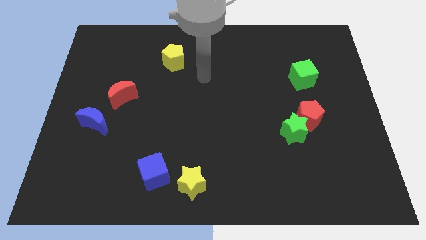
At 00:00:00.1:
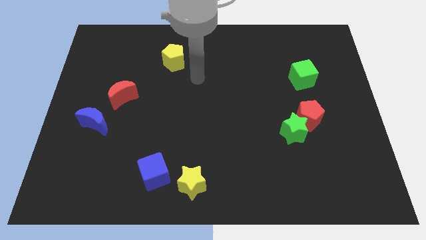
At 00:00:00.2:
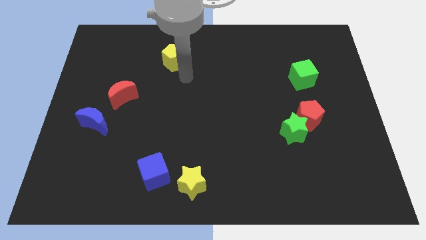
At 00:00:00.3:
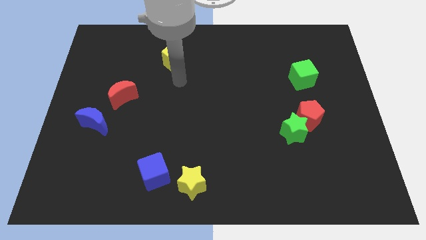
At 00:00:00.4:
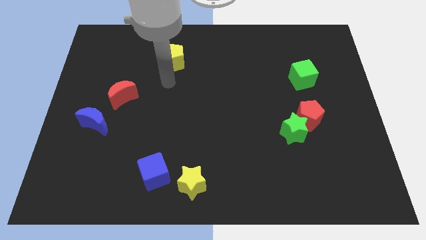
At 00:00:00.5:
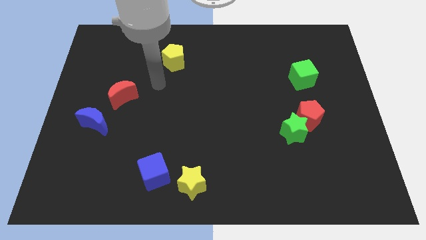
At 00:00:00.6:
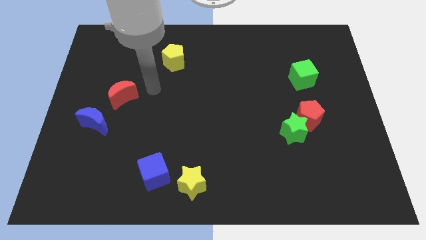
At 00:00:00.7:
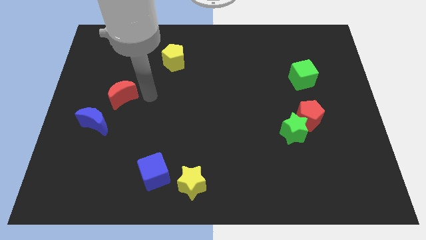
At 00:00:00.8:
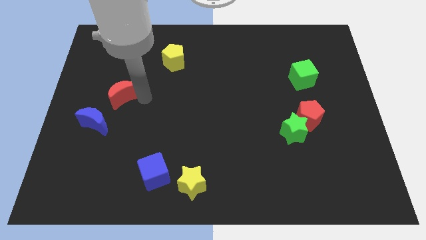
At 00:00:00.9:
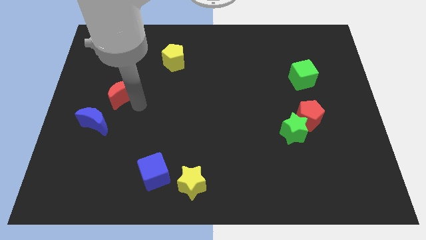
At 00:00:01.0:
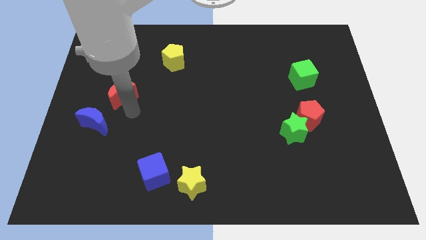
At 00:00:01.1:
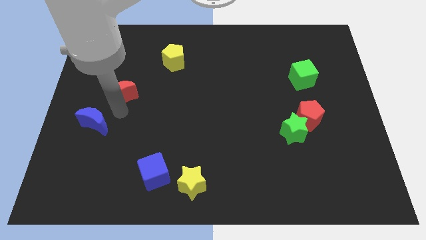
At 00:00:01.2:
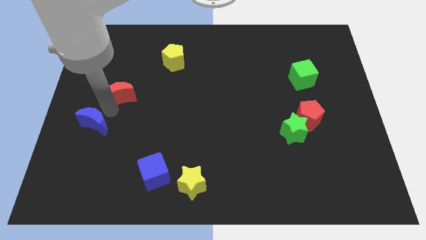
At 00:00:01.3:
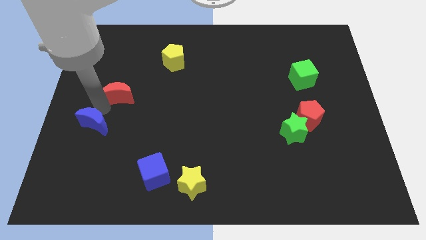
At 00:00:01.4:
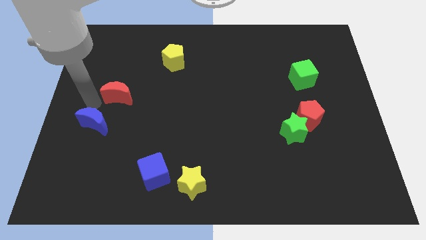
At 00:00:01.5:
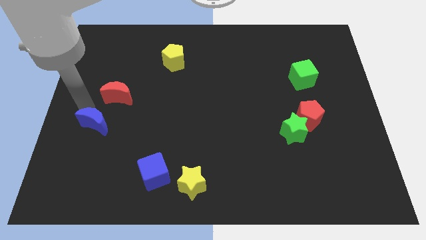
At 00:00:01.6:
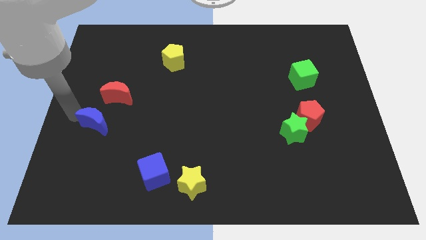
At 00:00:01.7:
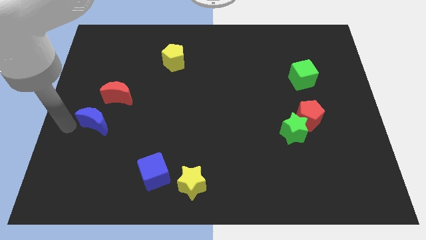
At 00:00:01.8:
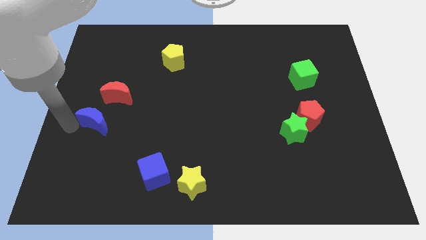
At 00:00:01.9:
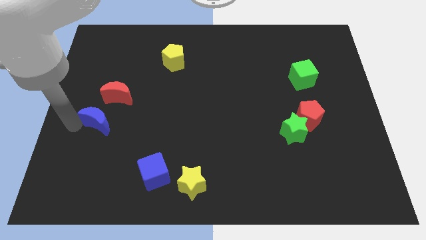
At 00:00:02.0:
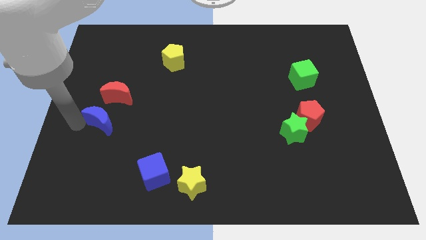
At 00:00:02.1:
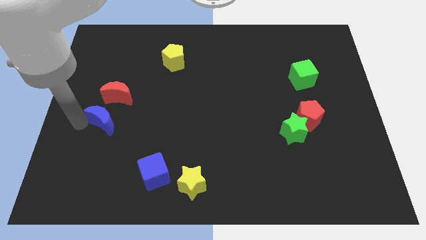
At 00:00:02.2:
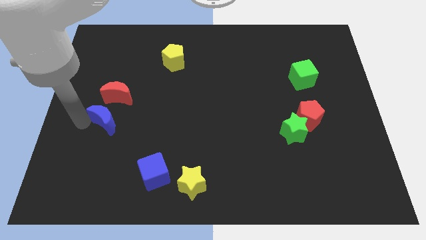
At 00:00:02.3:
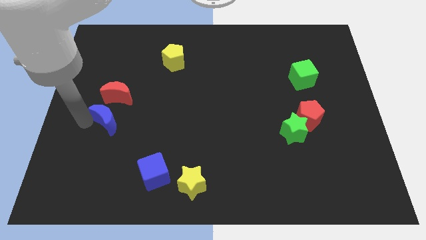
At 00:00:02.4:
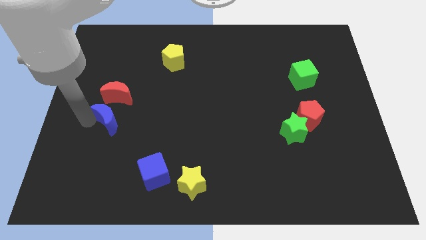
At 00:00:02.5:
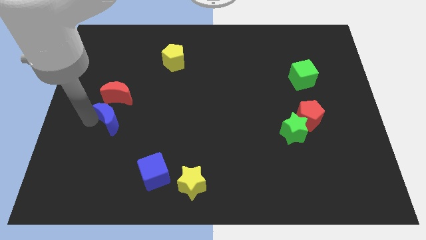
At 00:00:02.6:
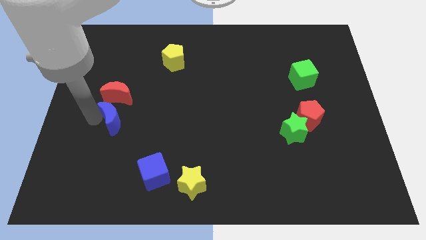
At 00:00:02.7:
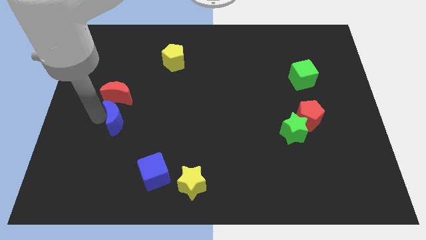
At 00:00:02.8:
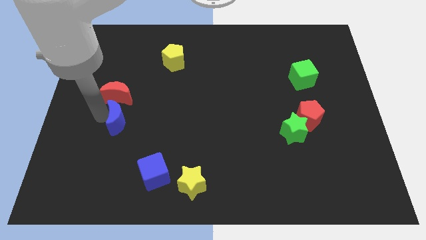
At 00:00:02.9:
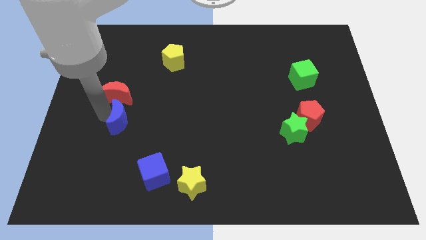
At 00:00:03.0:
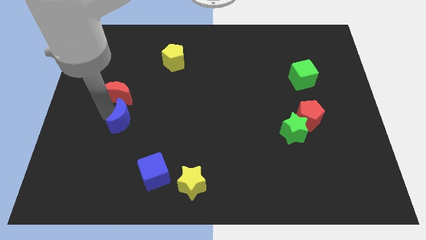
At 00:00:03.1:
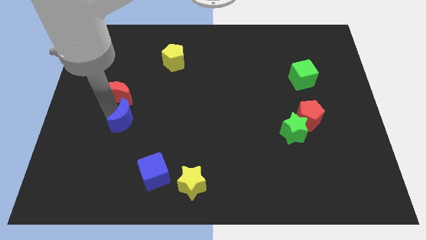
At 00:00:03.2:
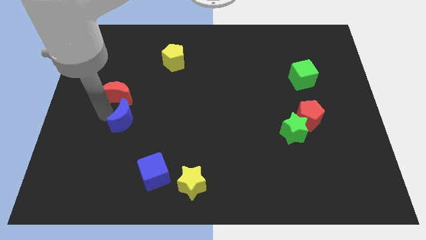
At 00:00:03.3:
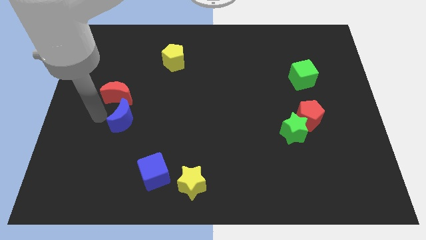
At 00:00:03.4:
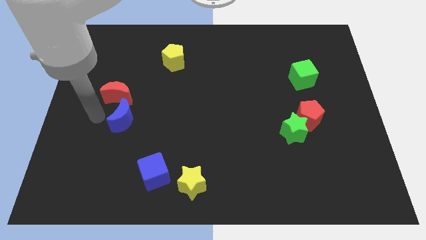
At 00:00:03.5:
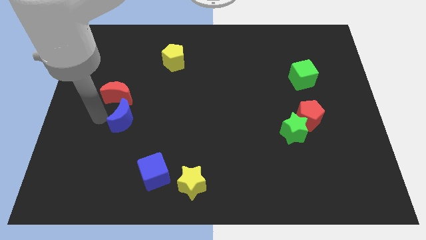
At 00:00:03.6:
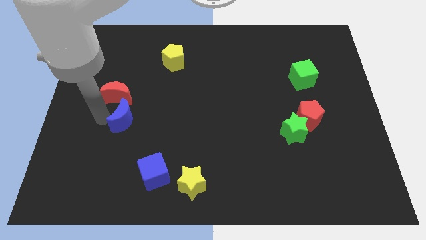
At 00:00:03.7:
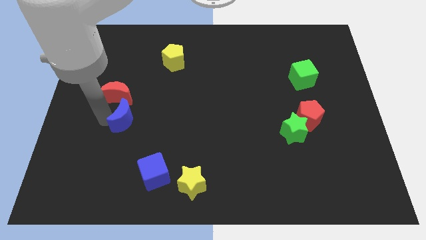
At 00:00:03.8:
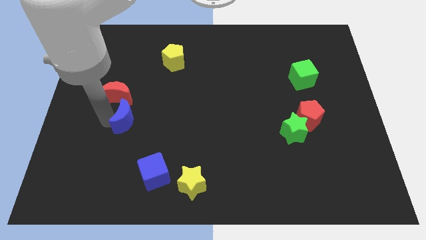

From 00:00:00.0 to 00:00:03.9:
slide the blue moon slightly right

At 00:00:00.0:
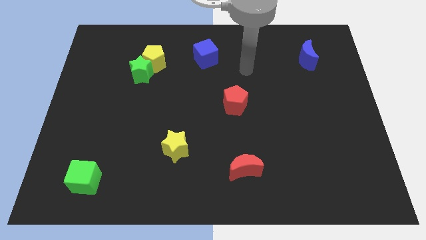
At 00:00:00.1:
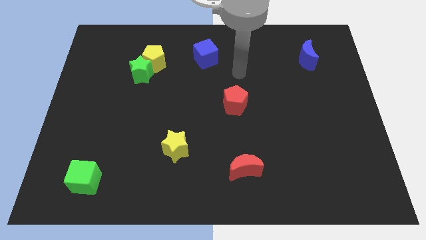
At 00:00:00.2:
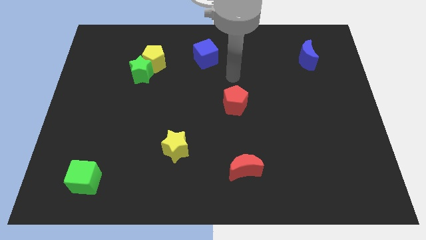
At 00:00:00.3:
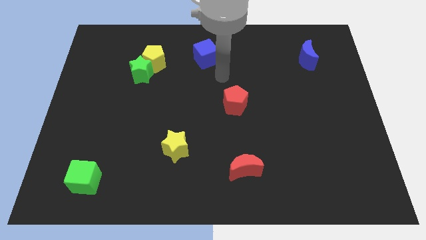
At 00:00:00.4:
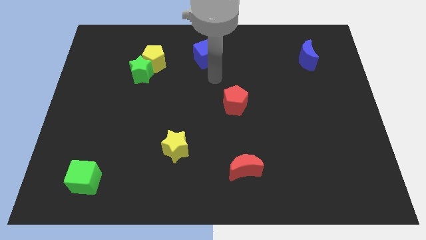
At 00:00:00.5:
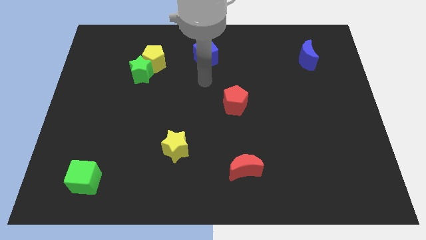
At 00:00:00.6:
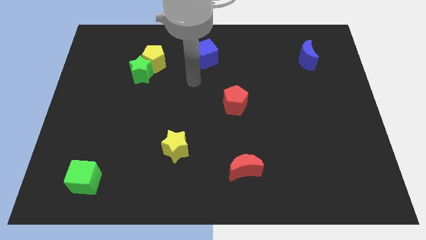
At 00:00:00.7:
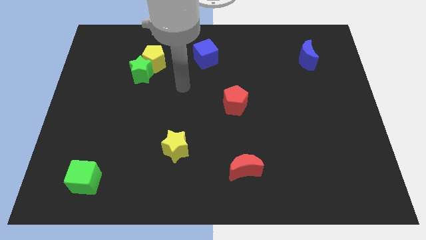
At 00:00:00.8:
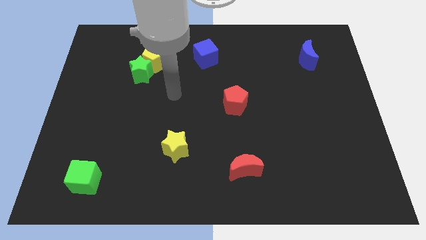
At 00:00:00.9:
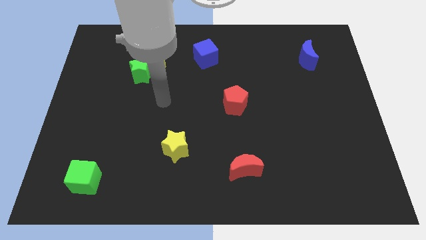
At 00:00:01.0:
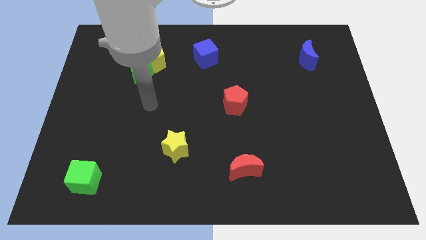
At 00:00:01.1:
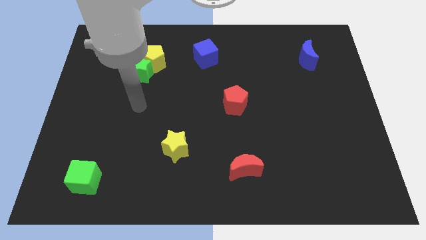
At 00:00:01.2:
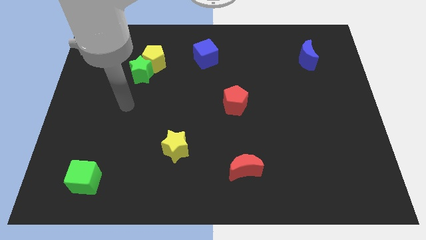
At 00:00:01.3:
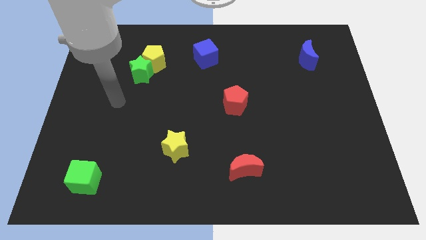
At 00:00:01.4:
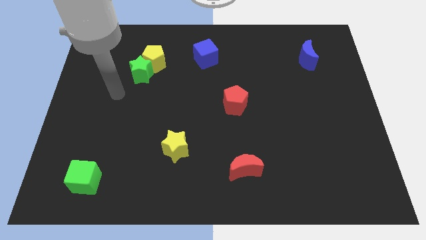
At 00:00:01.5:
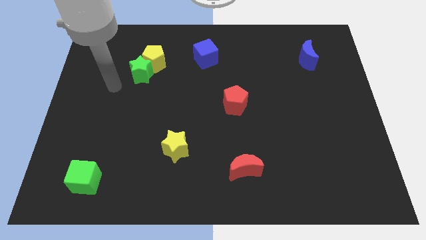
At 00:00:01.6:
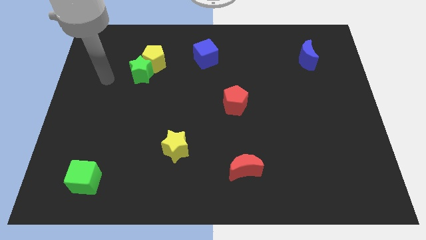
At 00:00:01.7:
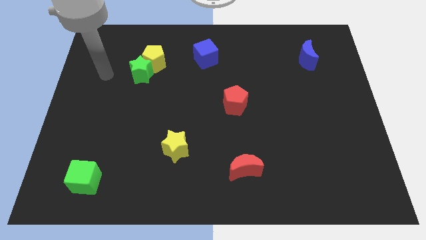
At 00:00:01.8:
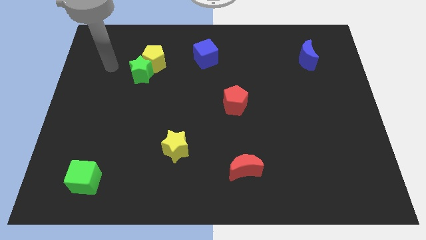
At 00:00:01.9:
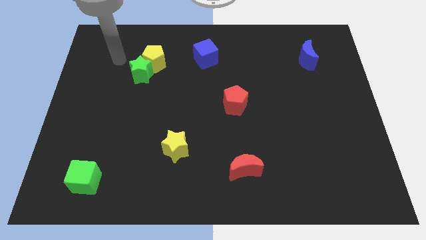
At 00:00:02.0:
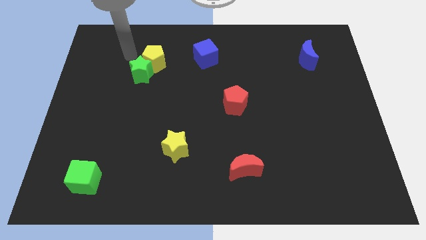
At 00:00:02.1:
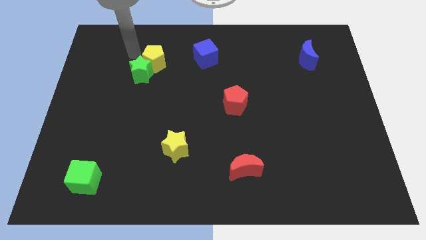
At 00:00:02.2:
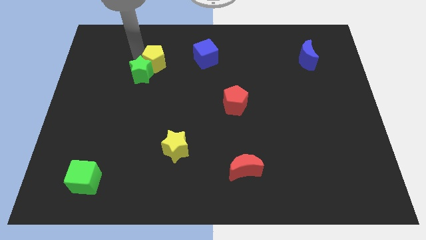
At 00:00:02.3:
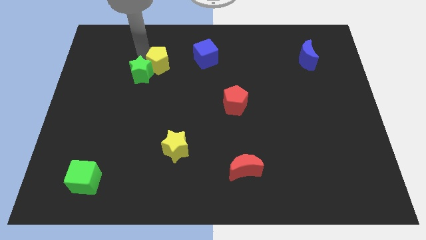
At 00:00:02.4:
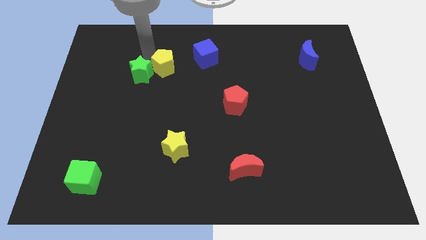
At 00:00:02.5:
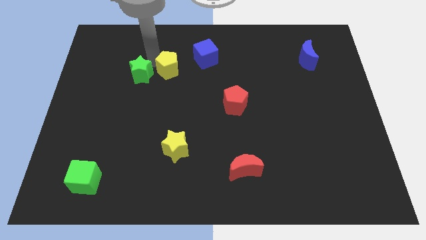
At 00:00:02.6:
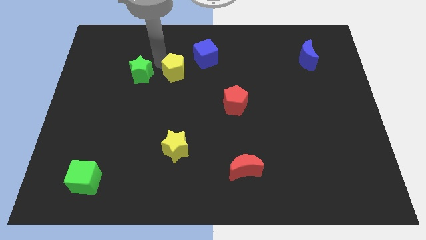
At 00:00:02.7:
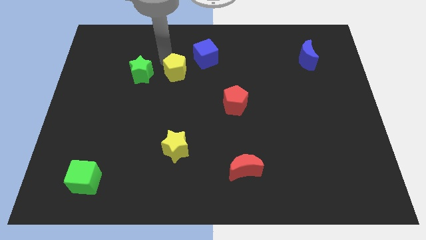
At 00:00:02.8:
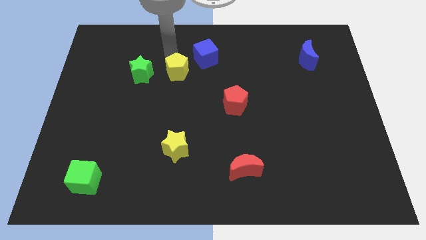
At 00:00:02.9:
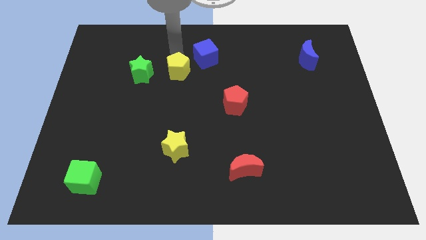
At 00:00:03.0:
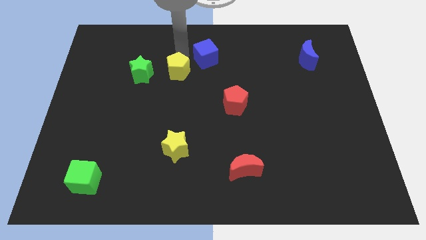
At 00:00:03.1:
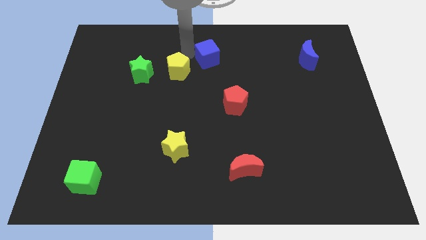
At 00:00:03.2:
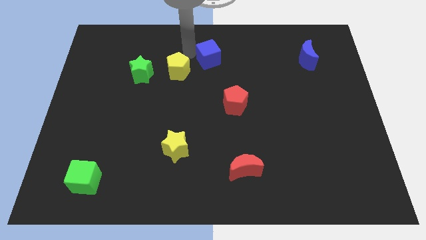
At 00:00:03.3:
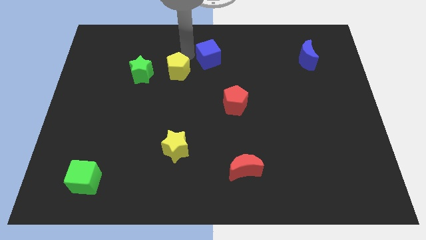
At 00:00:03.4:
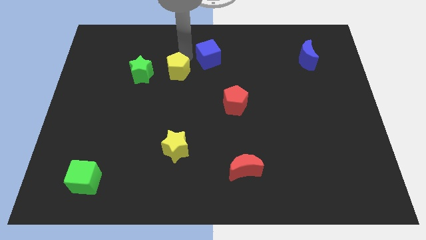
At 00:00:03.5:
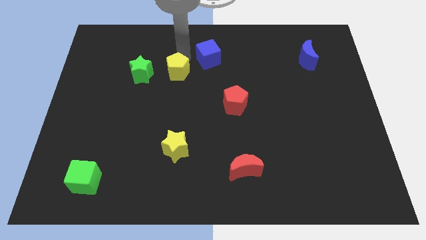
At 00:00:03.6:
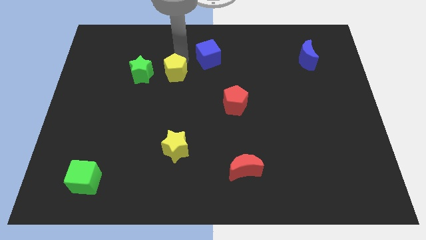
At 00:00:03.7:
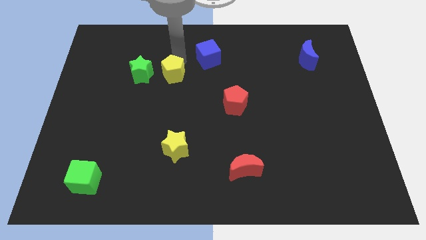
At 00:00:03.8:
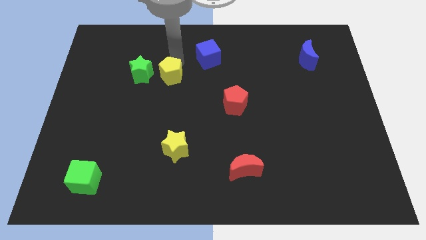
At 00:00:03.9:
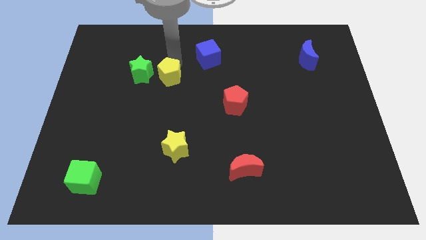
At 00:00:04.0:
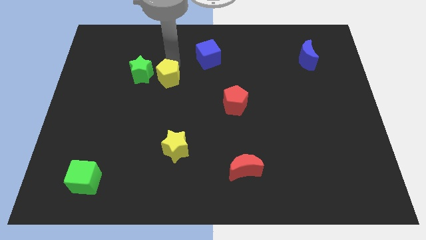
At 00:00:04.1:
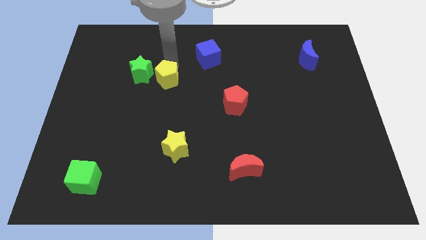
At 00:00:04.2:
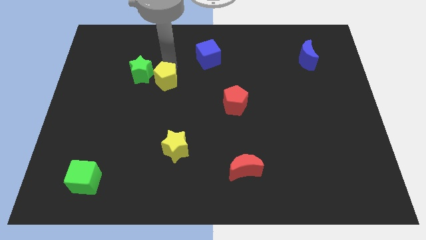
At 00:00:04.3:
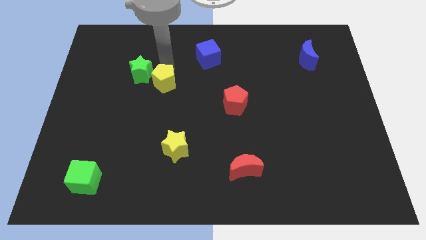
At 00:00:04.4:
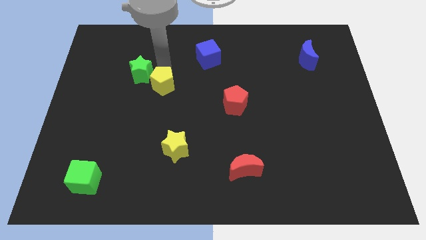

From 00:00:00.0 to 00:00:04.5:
move the yellow pentagon a little bit downwards
